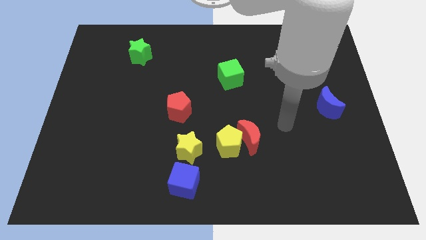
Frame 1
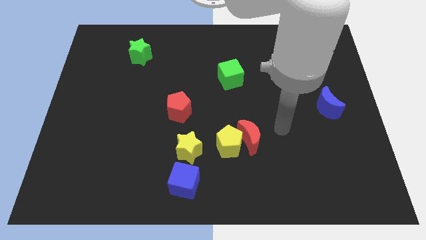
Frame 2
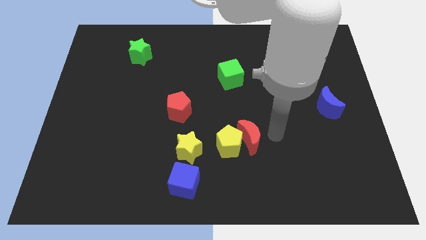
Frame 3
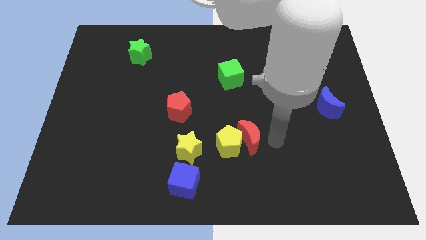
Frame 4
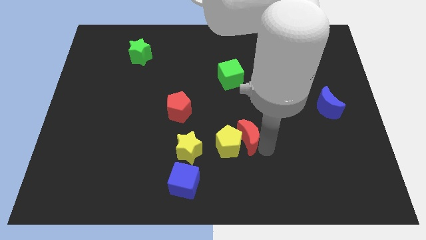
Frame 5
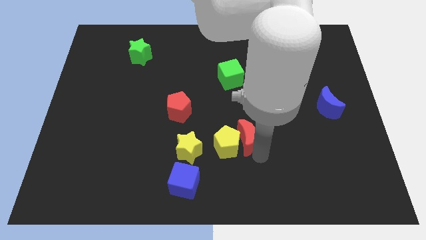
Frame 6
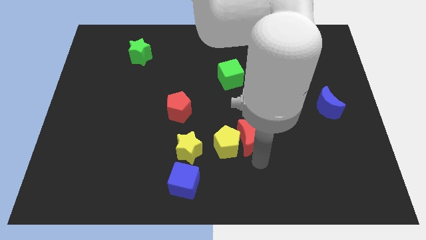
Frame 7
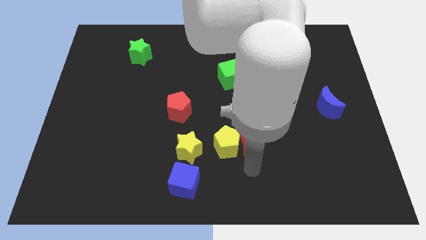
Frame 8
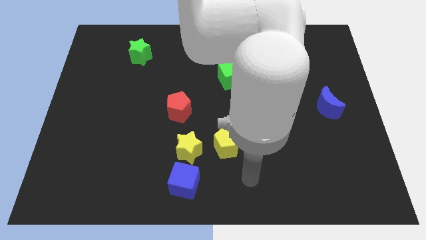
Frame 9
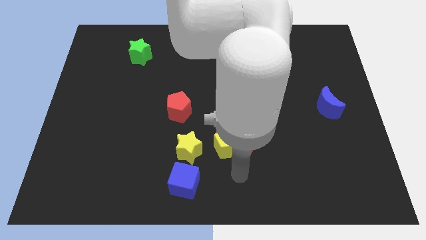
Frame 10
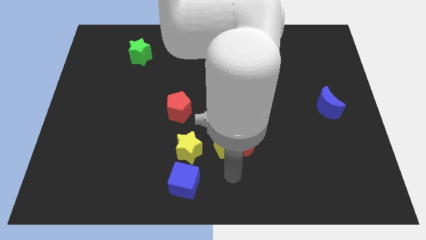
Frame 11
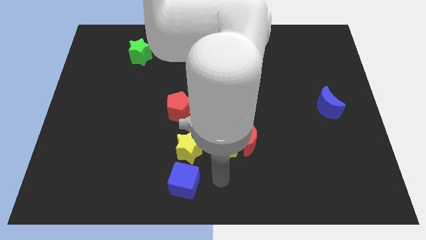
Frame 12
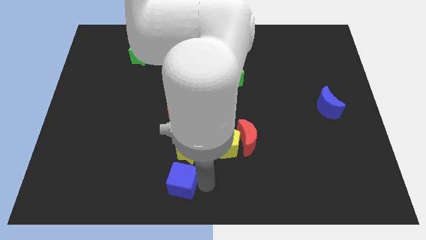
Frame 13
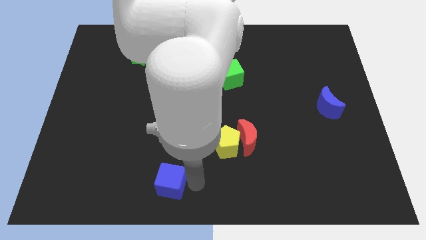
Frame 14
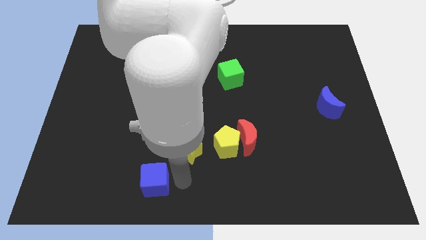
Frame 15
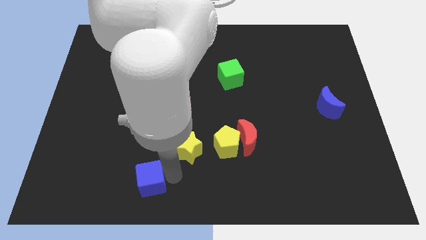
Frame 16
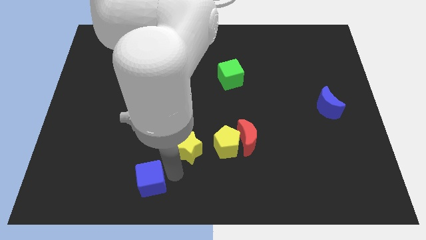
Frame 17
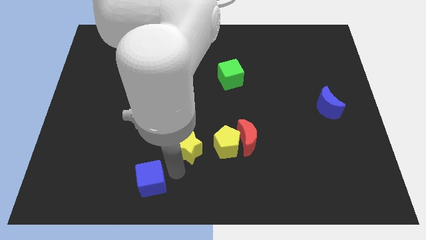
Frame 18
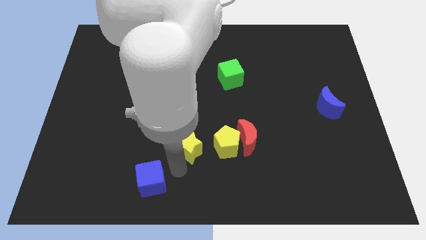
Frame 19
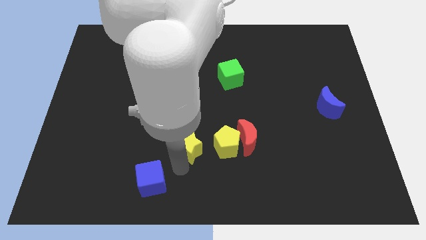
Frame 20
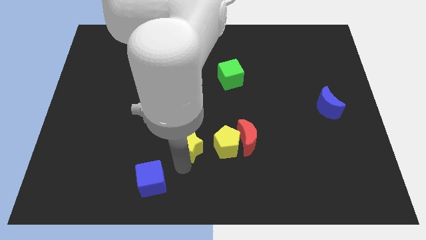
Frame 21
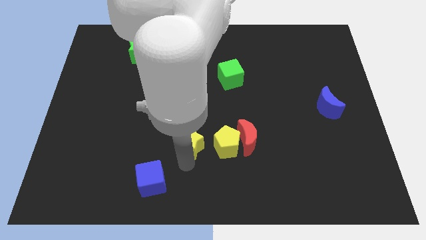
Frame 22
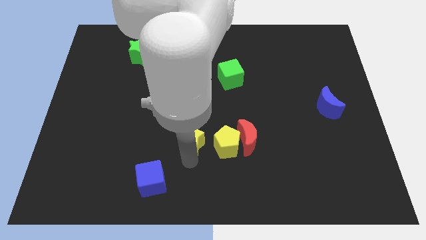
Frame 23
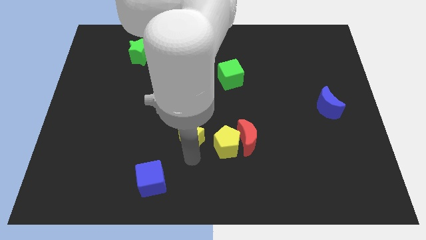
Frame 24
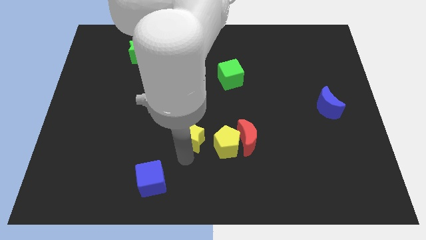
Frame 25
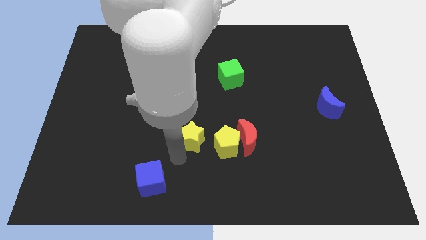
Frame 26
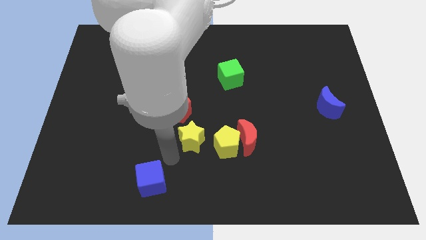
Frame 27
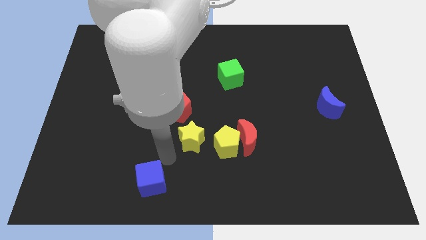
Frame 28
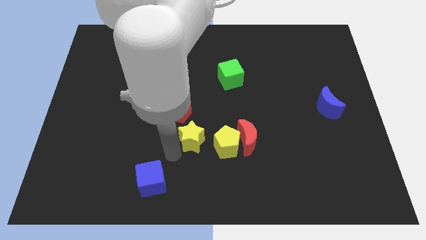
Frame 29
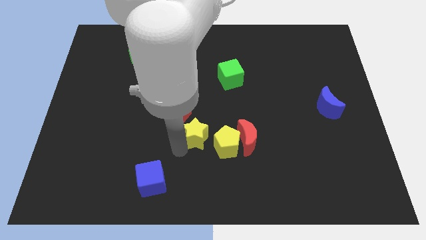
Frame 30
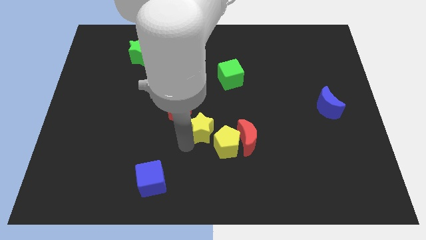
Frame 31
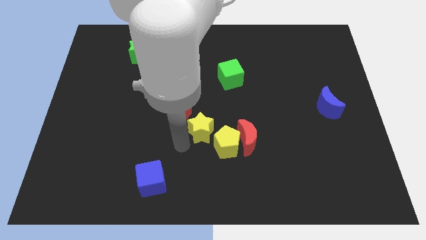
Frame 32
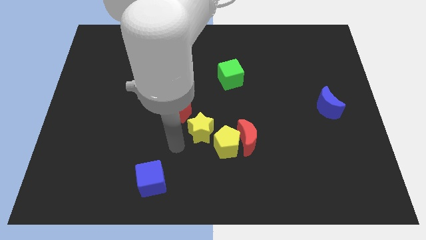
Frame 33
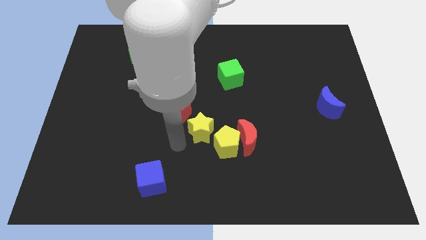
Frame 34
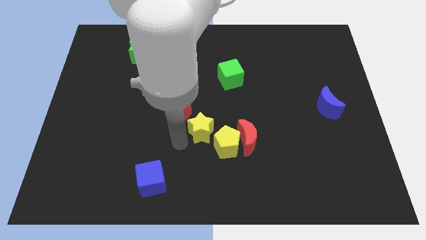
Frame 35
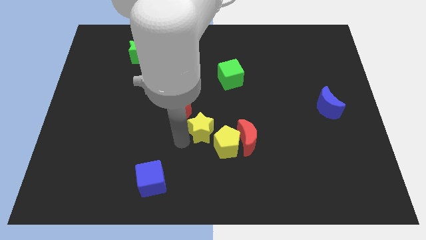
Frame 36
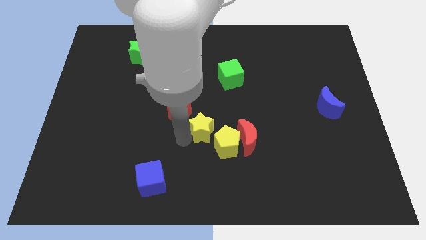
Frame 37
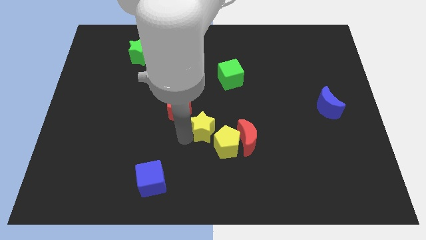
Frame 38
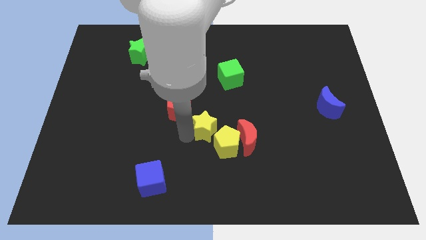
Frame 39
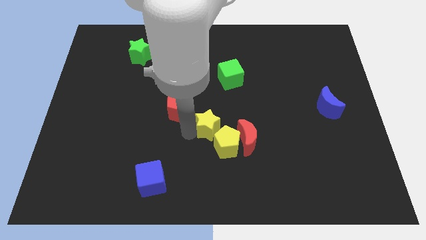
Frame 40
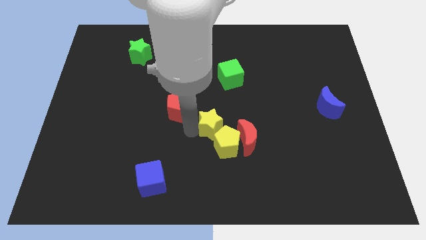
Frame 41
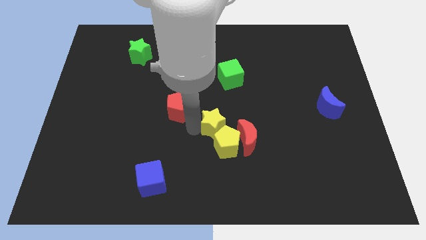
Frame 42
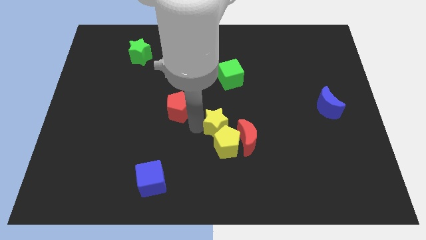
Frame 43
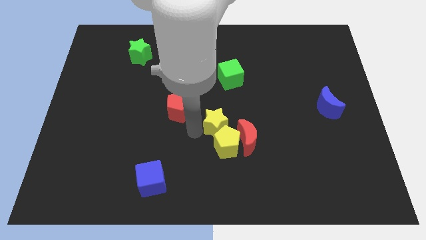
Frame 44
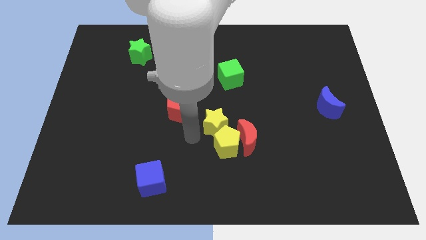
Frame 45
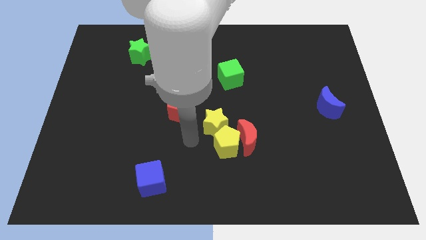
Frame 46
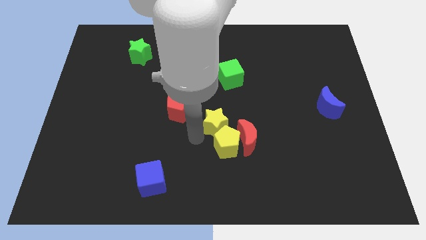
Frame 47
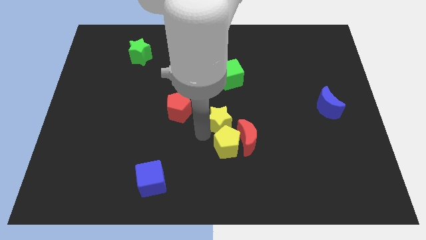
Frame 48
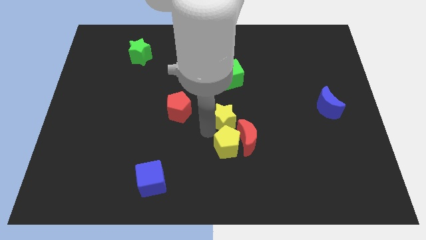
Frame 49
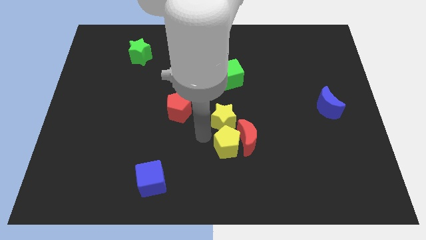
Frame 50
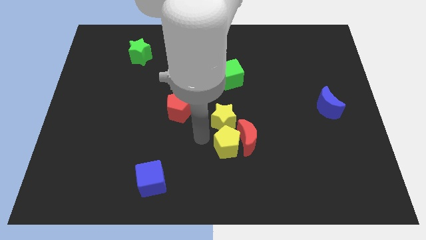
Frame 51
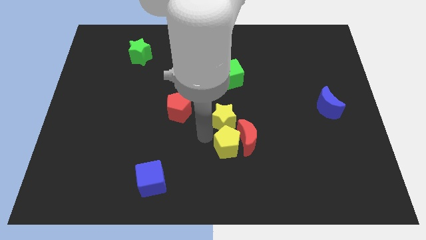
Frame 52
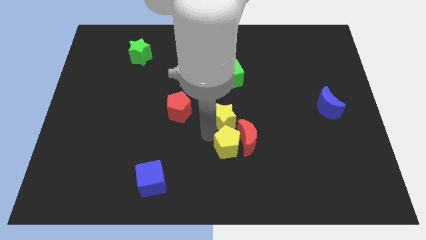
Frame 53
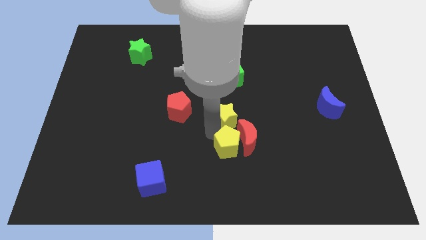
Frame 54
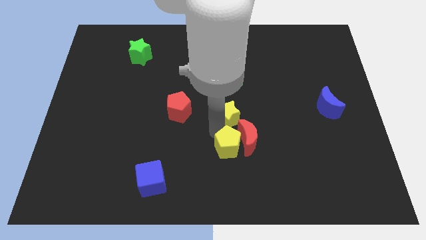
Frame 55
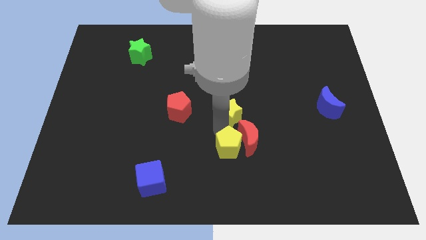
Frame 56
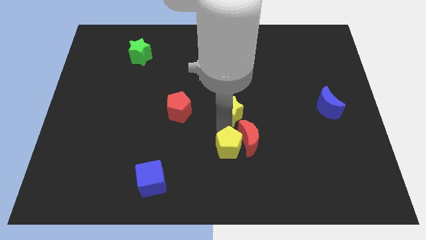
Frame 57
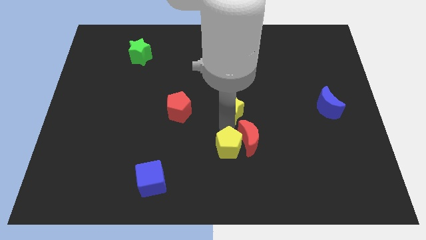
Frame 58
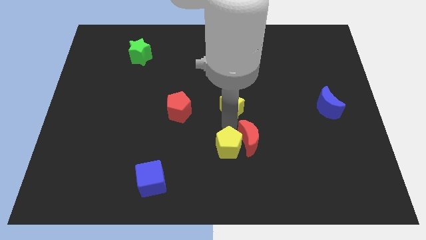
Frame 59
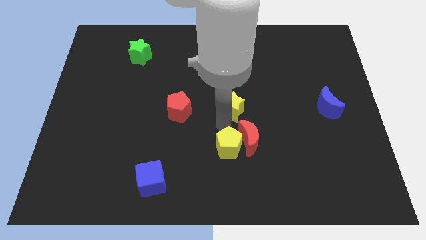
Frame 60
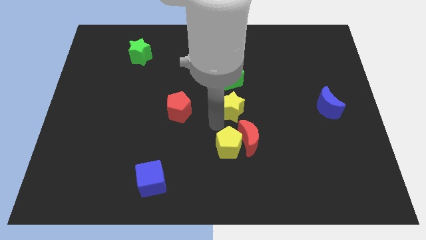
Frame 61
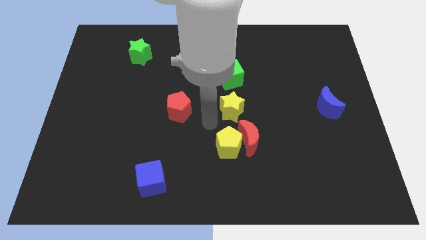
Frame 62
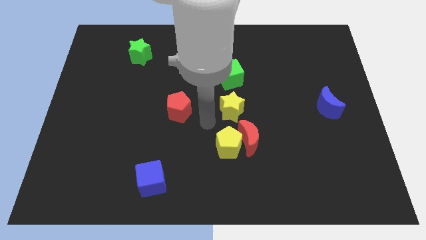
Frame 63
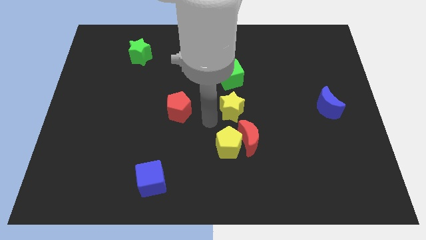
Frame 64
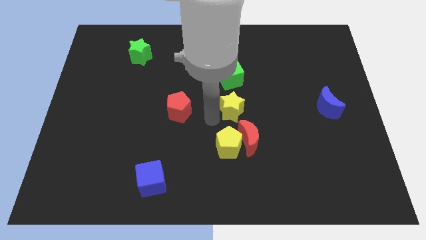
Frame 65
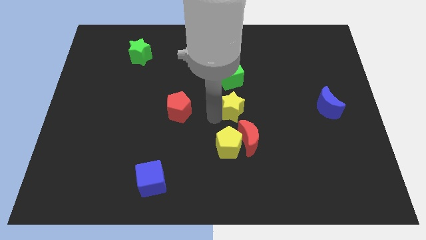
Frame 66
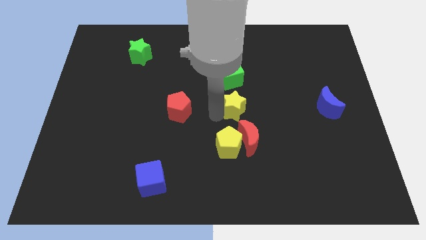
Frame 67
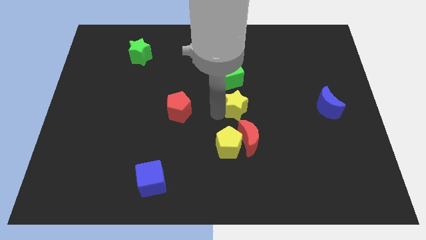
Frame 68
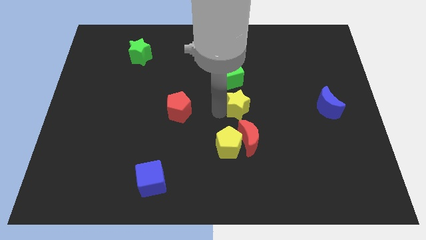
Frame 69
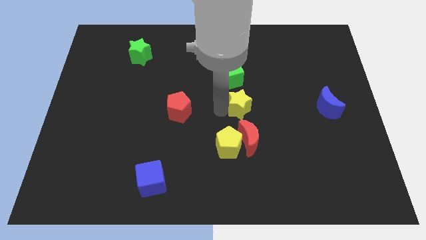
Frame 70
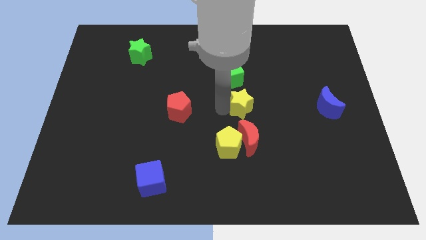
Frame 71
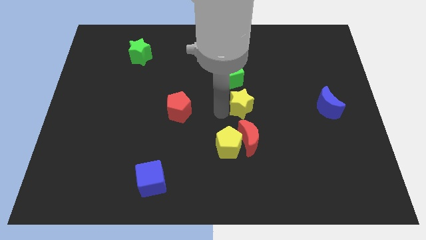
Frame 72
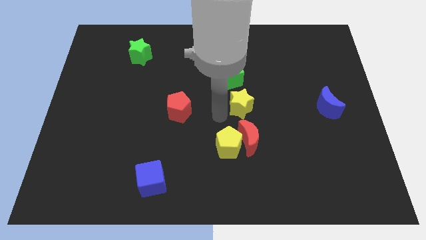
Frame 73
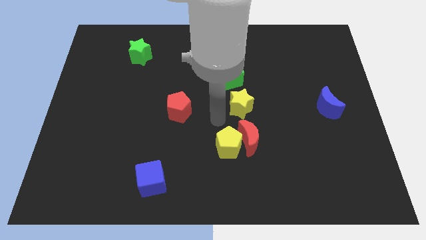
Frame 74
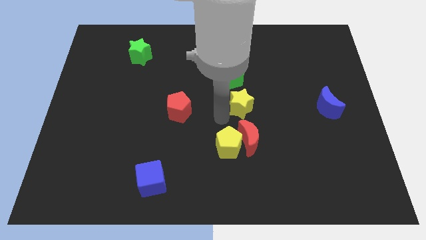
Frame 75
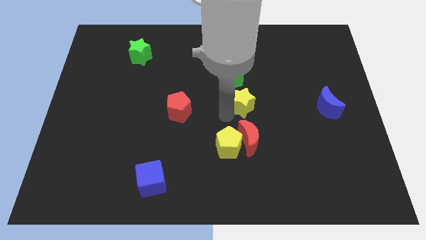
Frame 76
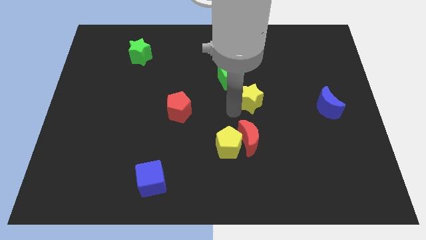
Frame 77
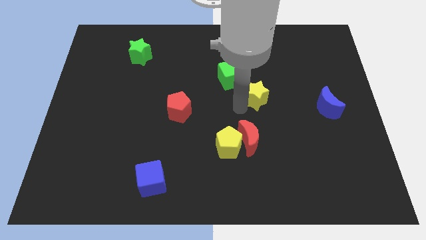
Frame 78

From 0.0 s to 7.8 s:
push the yellow star upwards and then right
